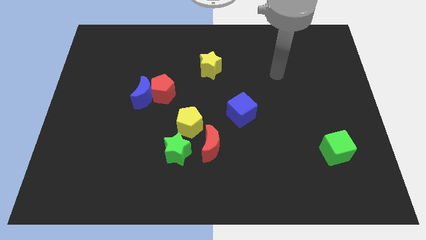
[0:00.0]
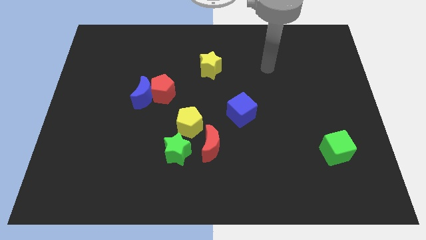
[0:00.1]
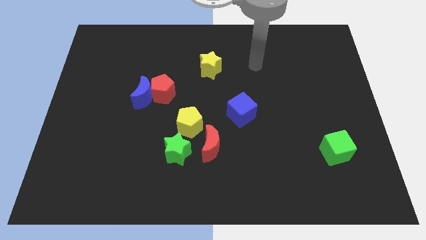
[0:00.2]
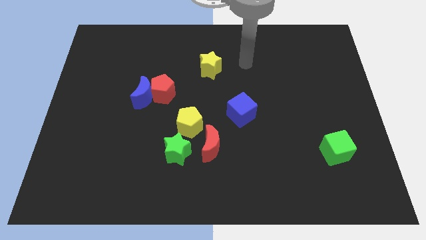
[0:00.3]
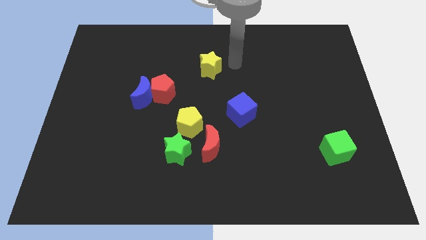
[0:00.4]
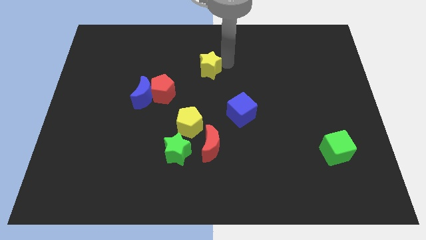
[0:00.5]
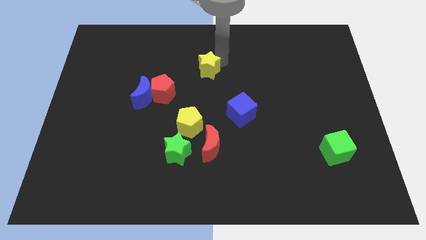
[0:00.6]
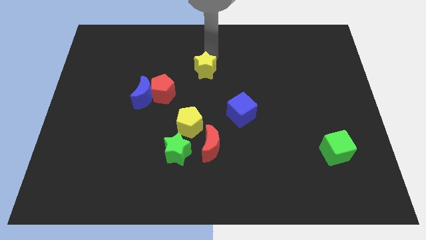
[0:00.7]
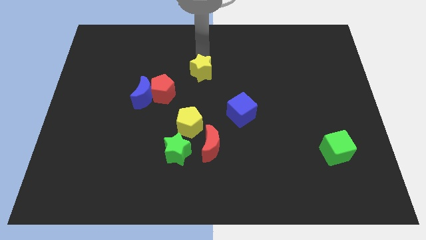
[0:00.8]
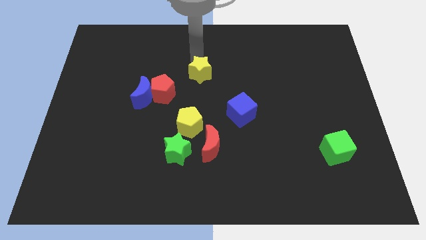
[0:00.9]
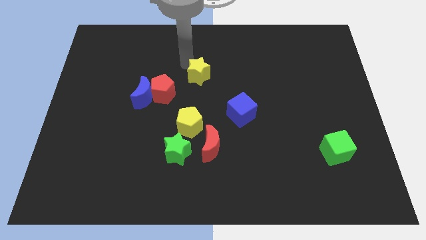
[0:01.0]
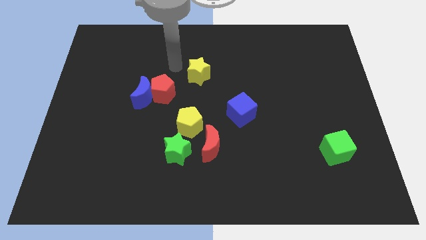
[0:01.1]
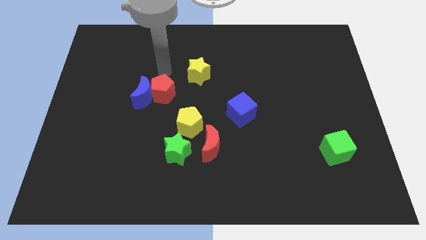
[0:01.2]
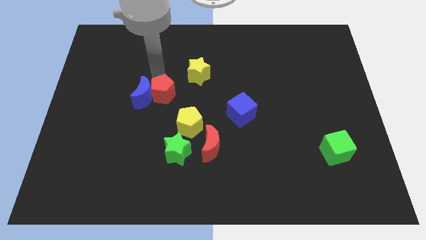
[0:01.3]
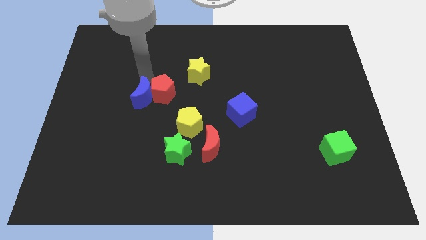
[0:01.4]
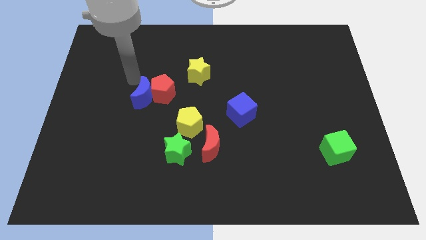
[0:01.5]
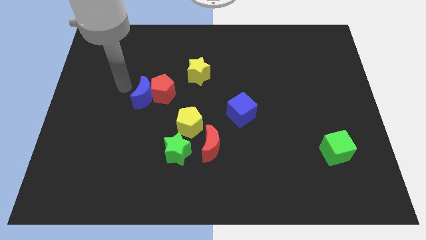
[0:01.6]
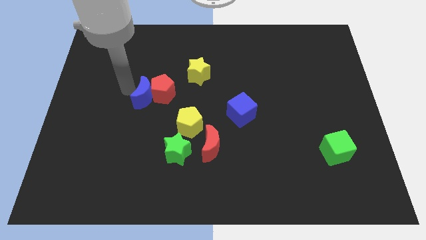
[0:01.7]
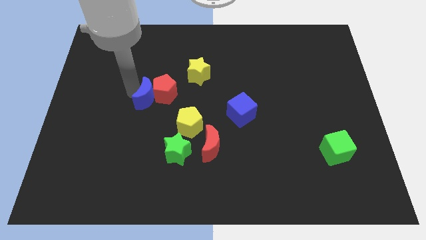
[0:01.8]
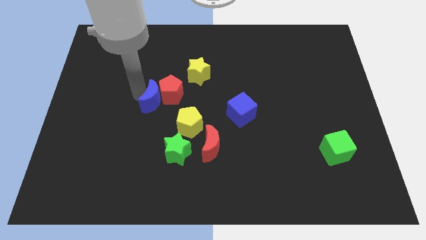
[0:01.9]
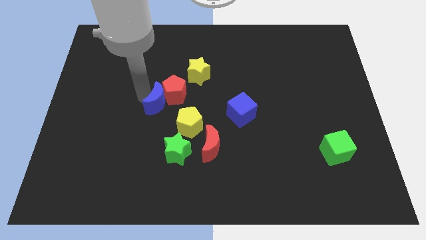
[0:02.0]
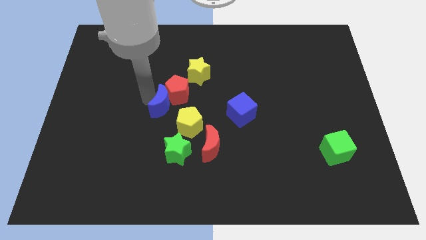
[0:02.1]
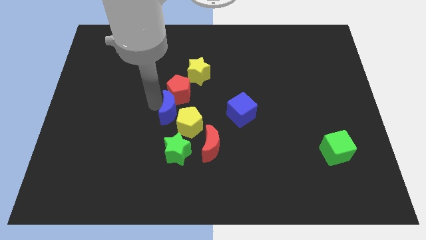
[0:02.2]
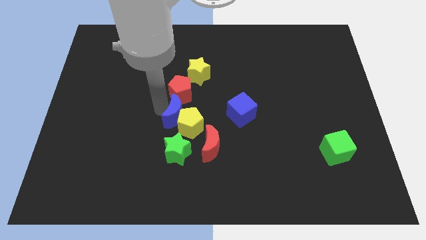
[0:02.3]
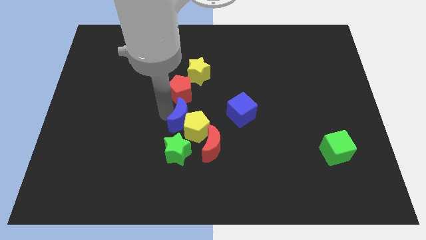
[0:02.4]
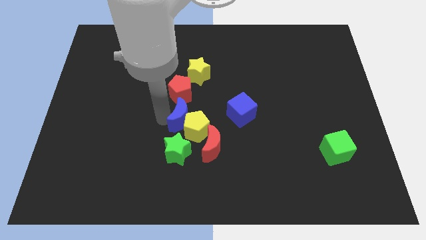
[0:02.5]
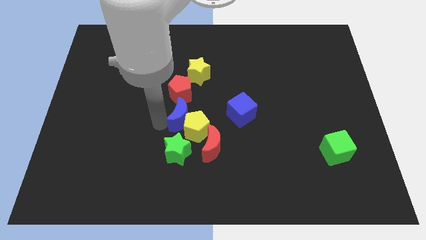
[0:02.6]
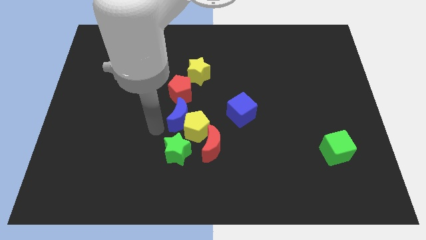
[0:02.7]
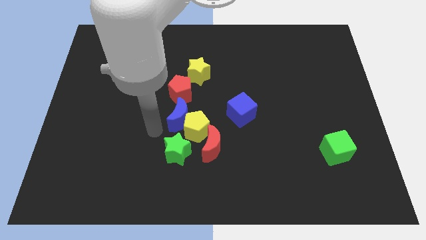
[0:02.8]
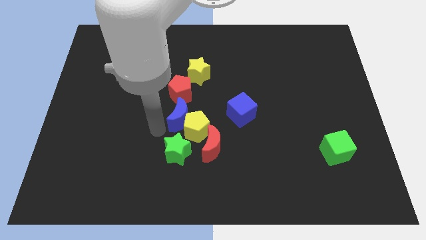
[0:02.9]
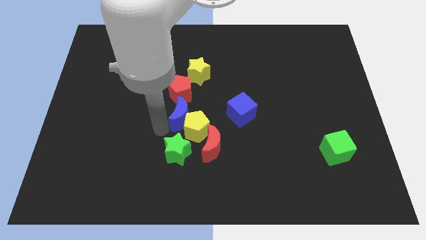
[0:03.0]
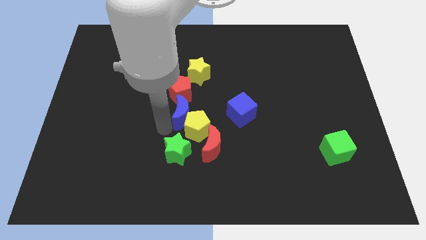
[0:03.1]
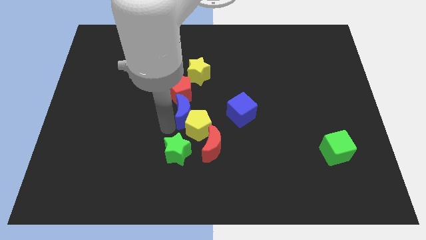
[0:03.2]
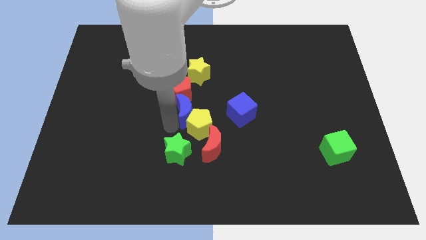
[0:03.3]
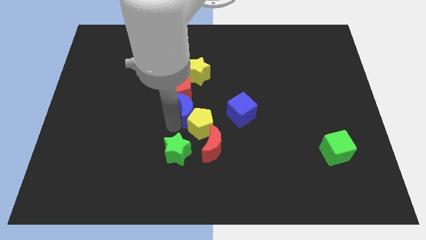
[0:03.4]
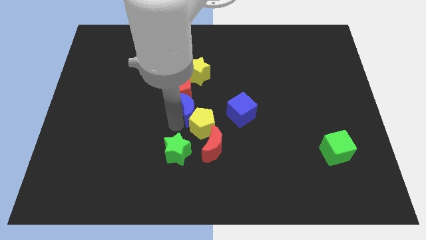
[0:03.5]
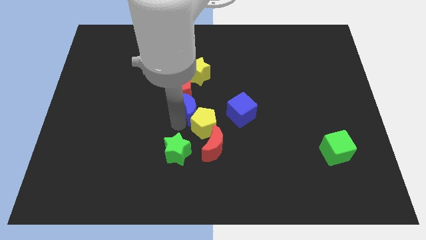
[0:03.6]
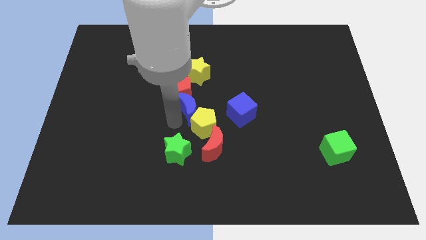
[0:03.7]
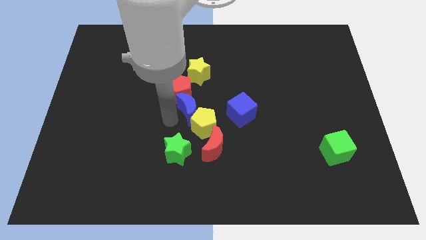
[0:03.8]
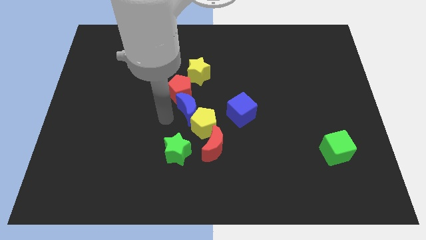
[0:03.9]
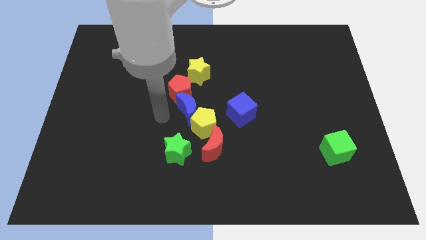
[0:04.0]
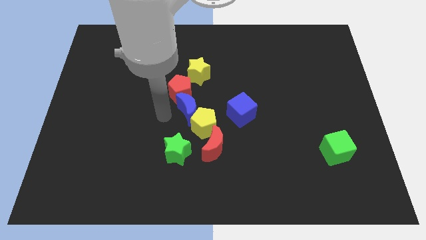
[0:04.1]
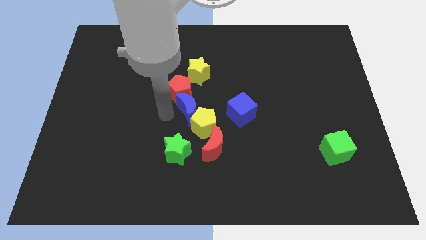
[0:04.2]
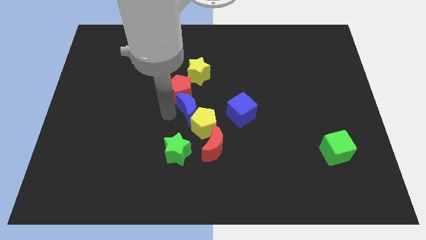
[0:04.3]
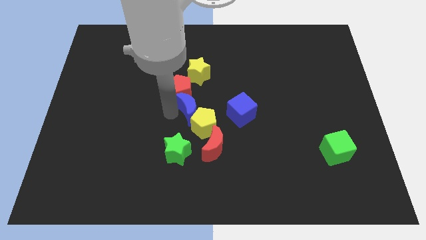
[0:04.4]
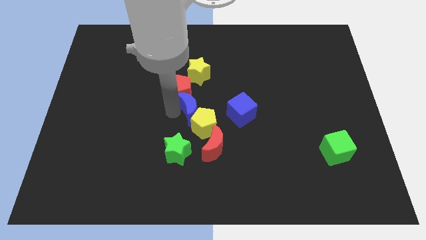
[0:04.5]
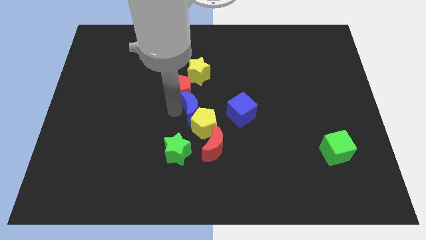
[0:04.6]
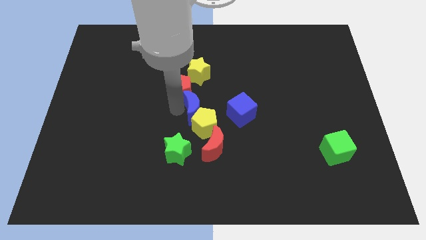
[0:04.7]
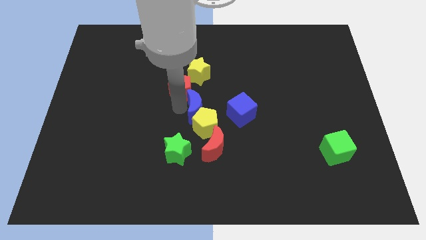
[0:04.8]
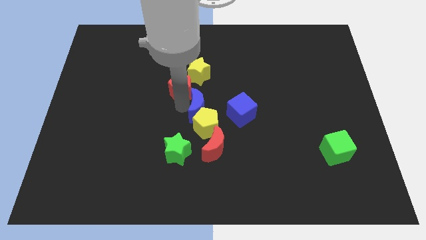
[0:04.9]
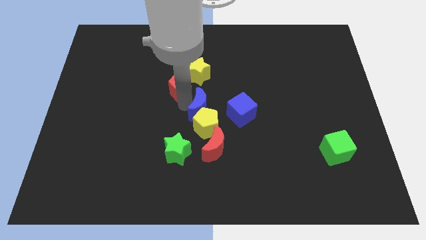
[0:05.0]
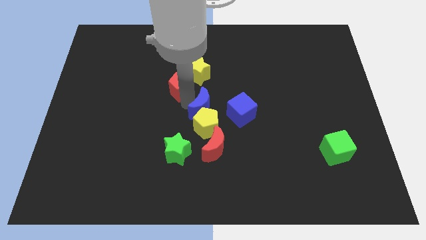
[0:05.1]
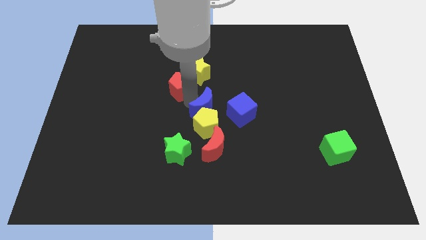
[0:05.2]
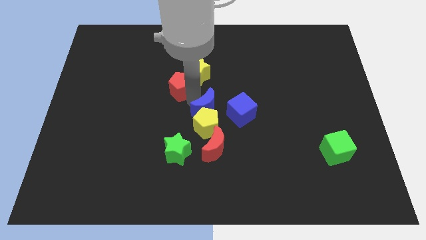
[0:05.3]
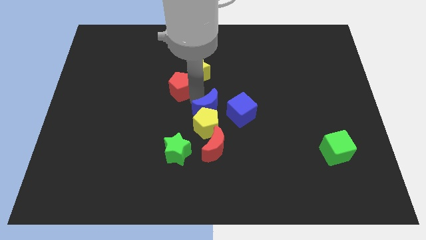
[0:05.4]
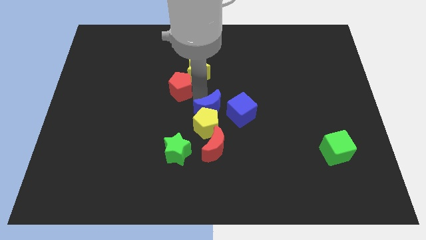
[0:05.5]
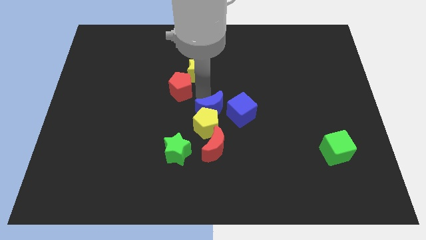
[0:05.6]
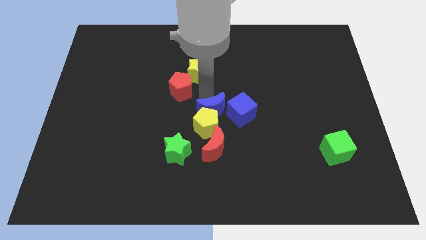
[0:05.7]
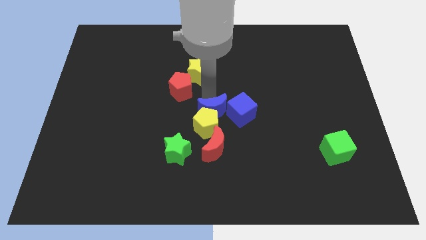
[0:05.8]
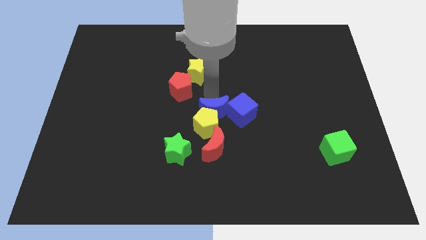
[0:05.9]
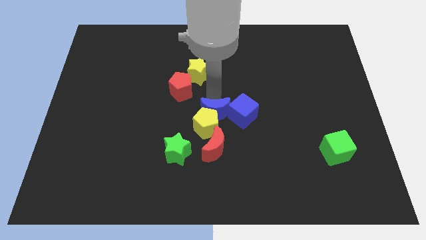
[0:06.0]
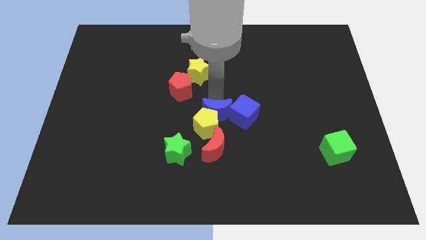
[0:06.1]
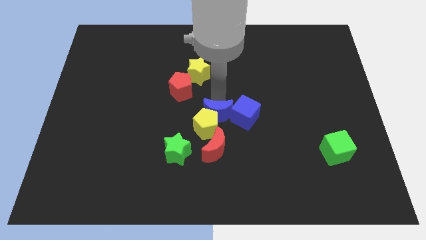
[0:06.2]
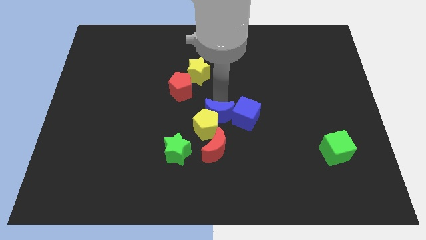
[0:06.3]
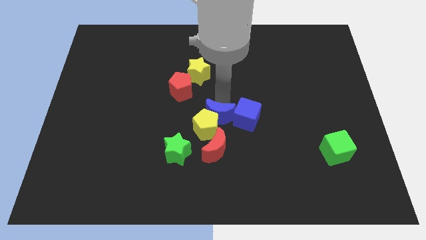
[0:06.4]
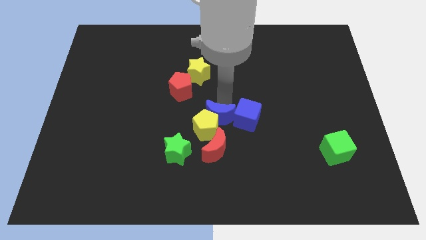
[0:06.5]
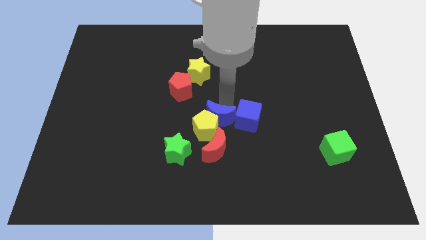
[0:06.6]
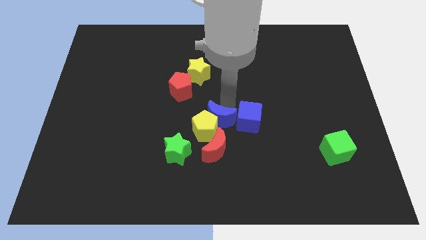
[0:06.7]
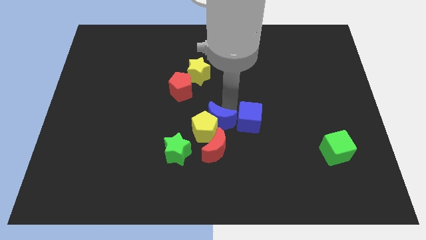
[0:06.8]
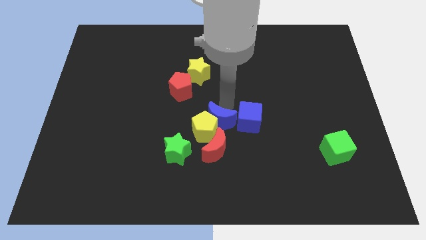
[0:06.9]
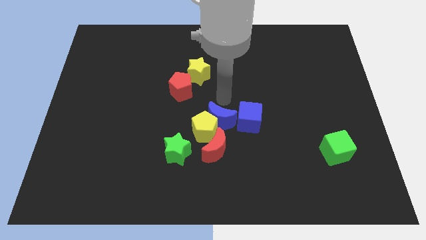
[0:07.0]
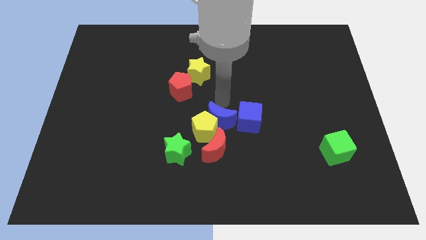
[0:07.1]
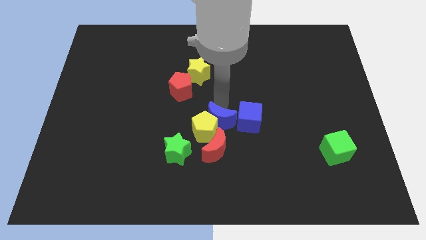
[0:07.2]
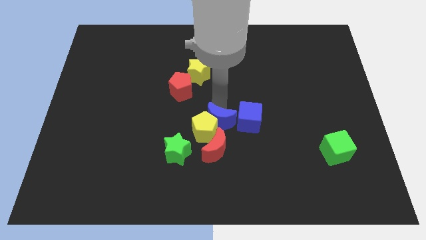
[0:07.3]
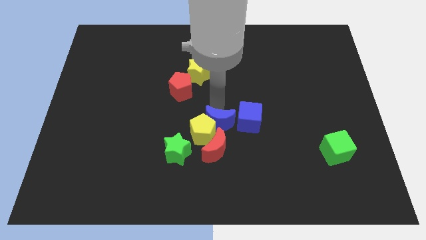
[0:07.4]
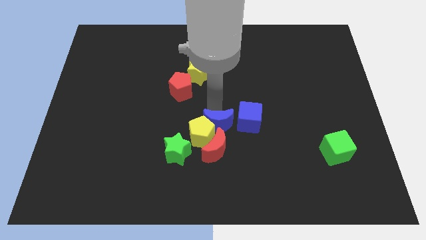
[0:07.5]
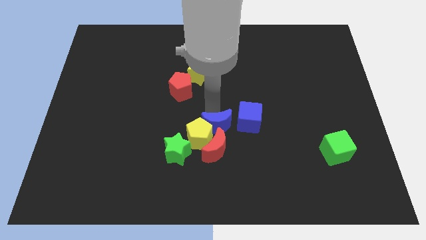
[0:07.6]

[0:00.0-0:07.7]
slide the blue moon close to the red moon

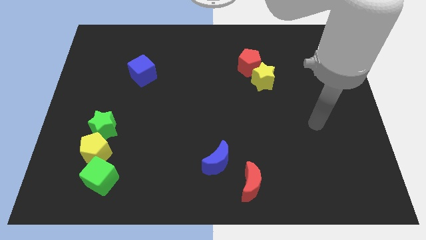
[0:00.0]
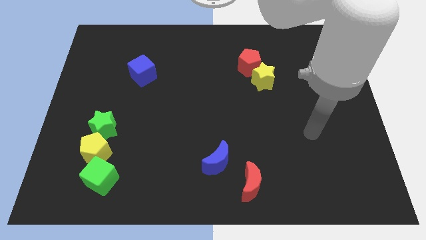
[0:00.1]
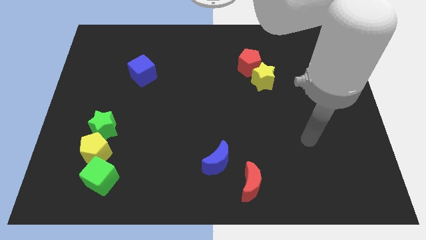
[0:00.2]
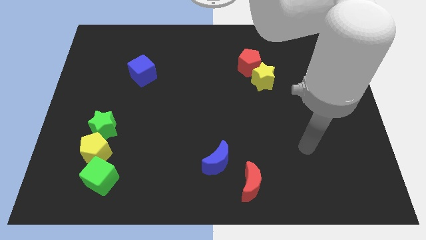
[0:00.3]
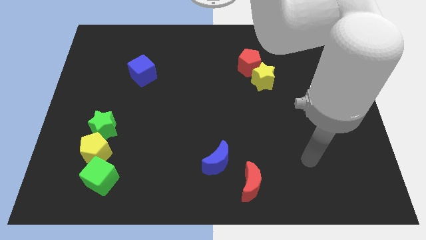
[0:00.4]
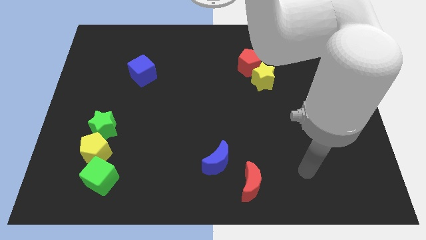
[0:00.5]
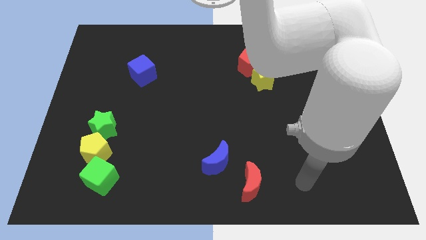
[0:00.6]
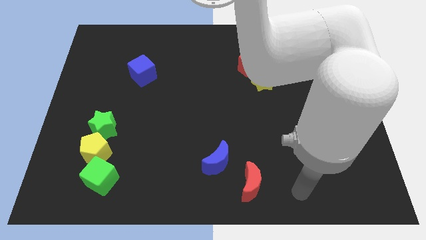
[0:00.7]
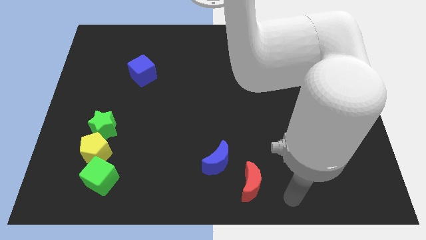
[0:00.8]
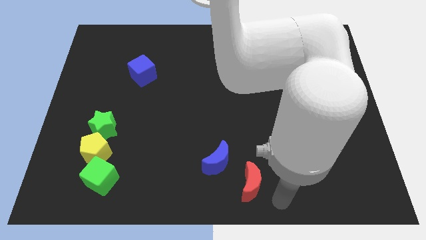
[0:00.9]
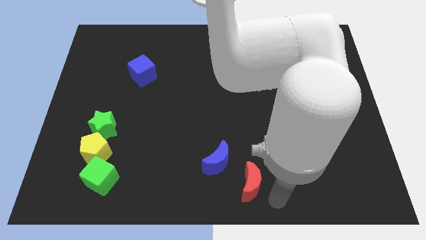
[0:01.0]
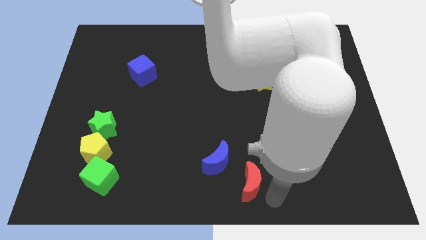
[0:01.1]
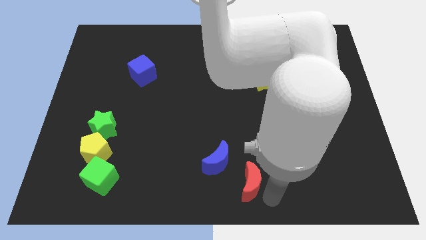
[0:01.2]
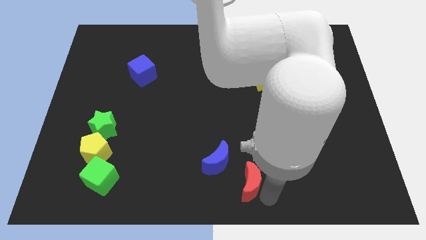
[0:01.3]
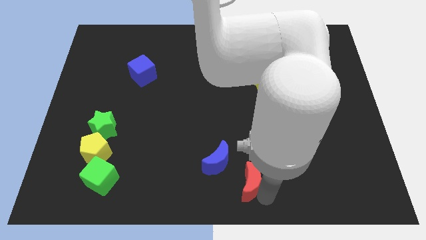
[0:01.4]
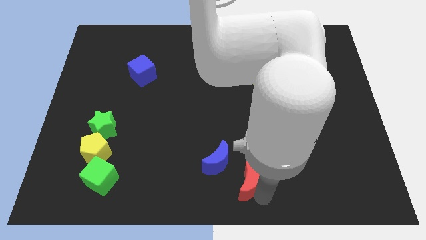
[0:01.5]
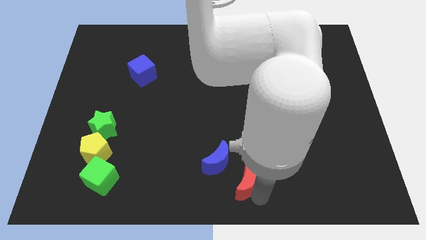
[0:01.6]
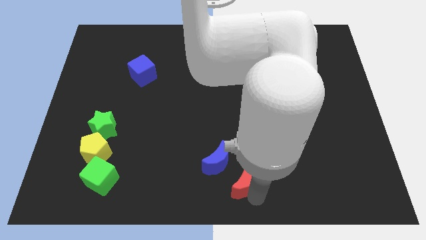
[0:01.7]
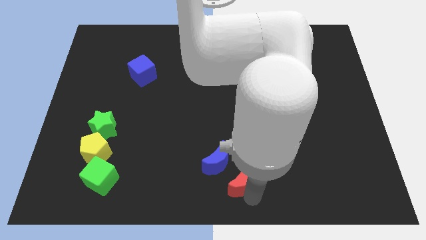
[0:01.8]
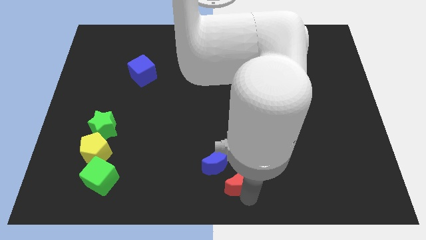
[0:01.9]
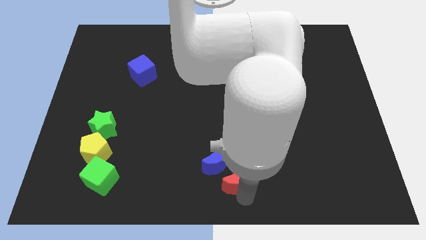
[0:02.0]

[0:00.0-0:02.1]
slide the red moon towards the blue moon
